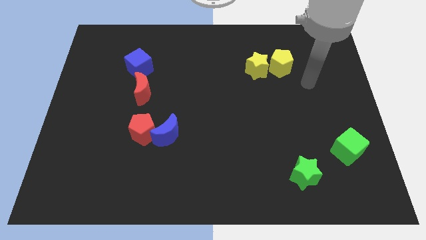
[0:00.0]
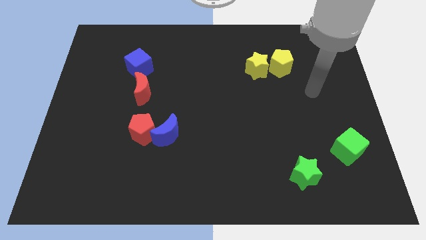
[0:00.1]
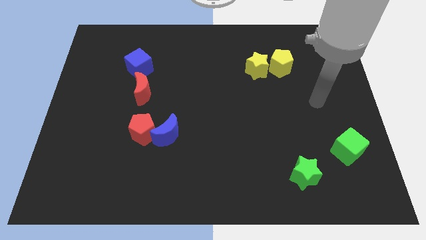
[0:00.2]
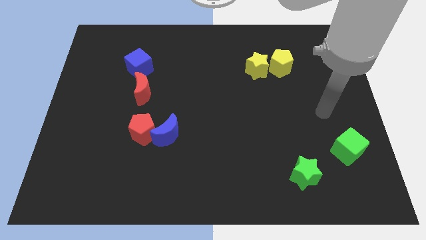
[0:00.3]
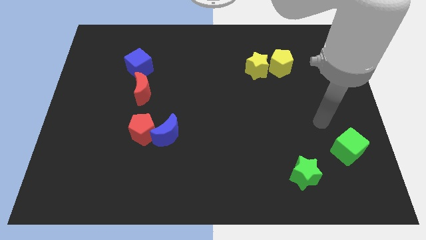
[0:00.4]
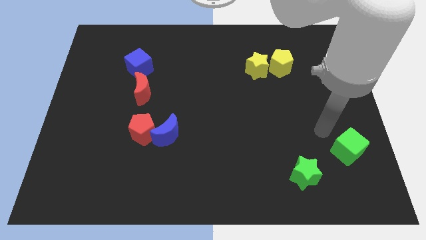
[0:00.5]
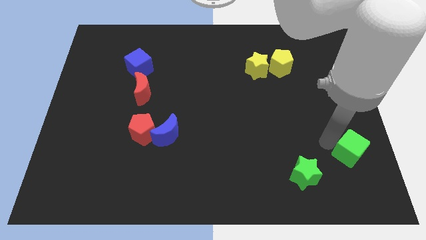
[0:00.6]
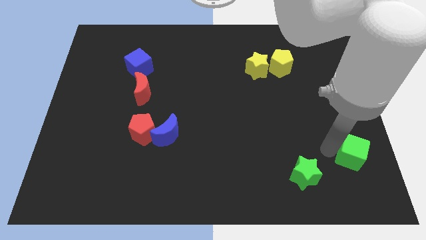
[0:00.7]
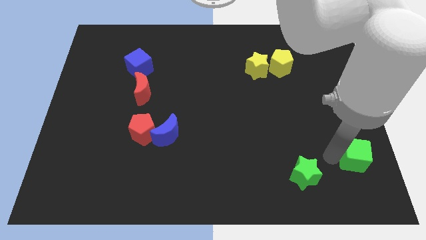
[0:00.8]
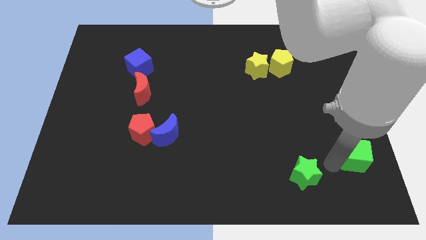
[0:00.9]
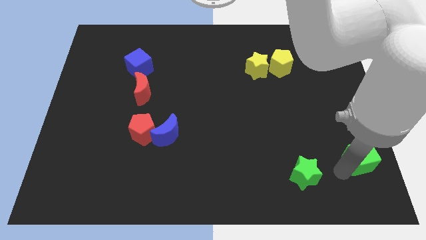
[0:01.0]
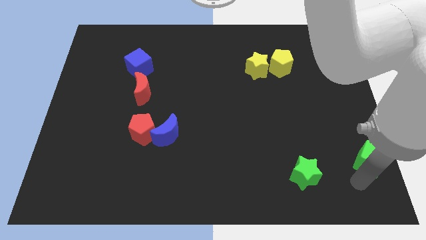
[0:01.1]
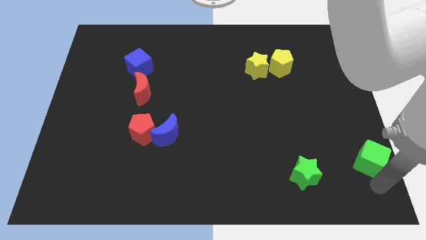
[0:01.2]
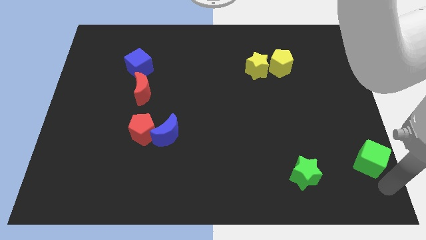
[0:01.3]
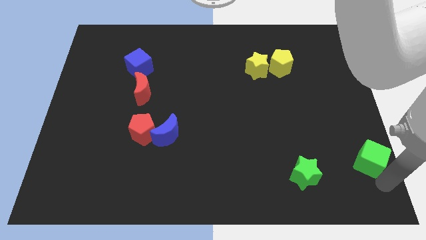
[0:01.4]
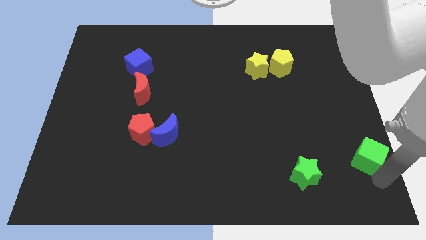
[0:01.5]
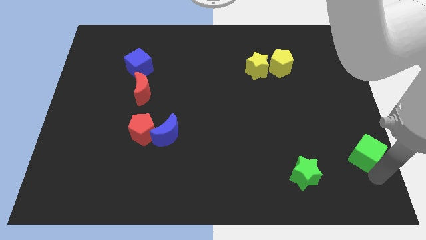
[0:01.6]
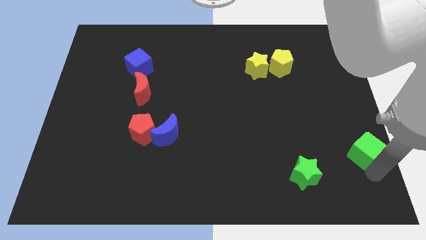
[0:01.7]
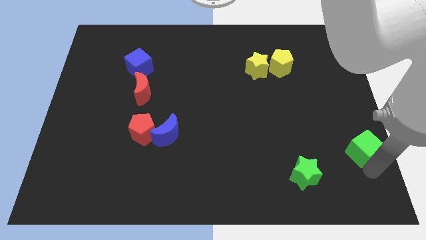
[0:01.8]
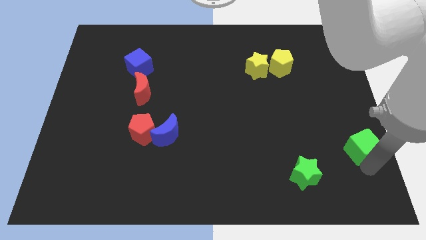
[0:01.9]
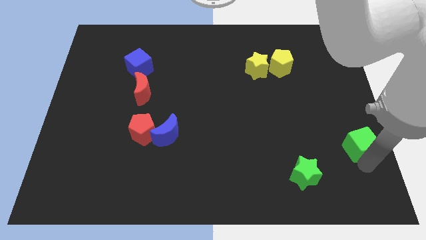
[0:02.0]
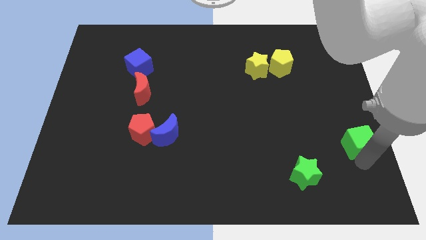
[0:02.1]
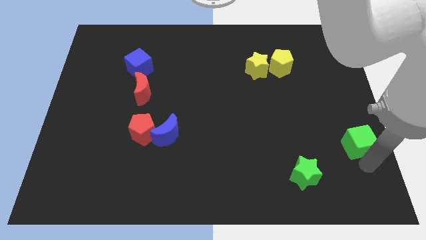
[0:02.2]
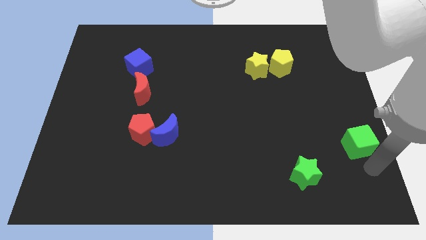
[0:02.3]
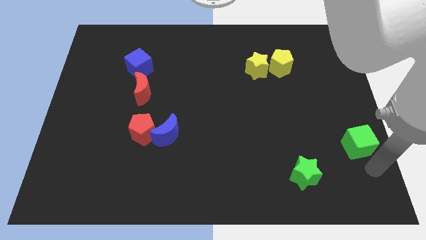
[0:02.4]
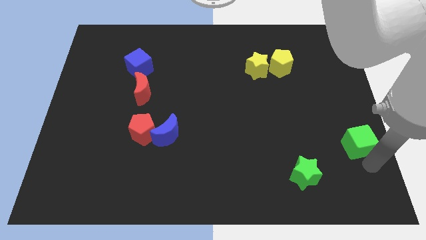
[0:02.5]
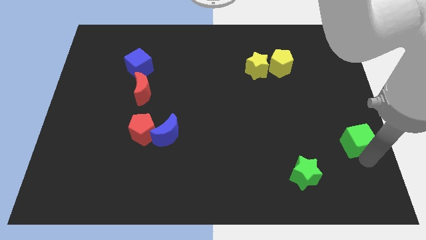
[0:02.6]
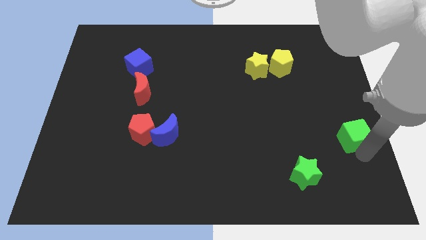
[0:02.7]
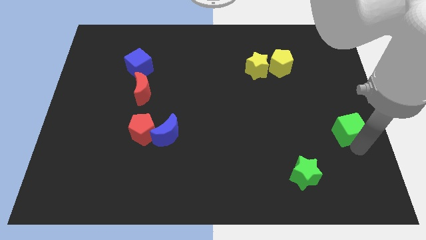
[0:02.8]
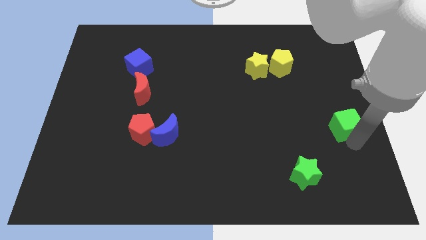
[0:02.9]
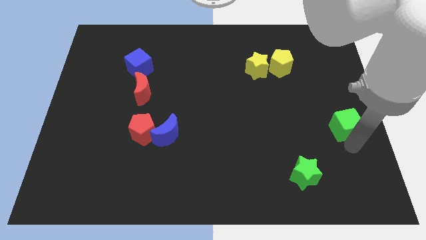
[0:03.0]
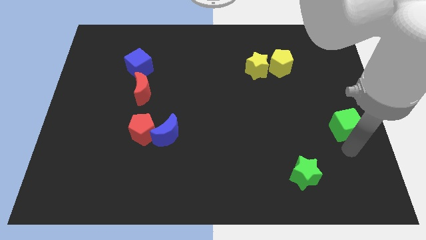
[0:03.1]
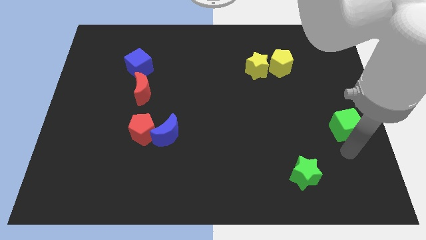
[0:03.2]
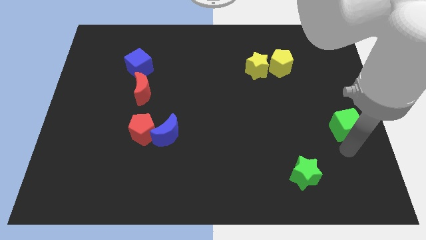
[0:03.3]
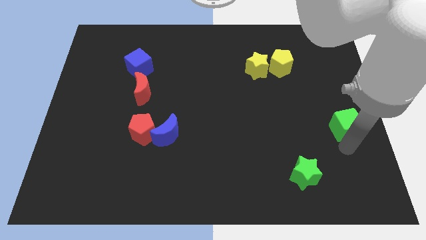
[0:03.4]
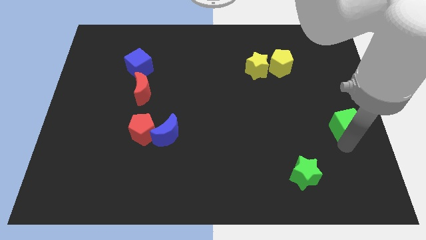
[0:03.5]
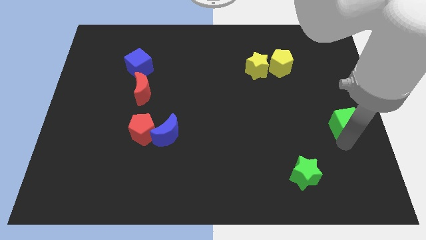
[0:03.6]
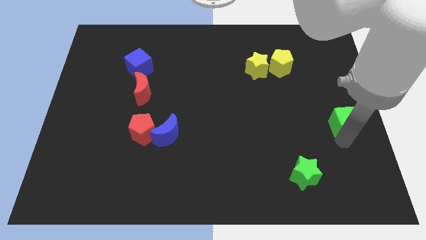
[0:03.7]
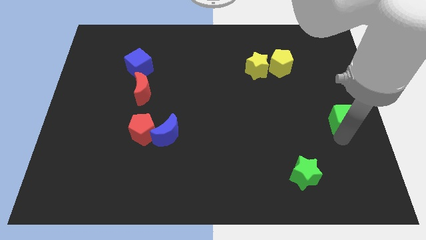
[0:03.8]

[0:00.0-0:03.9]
slightly push the green cube up

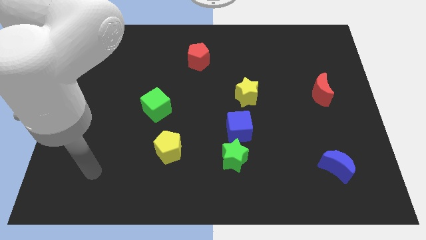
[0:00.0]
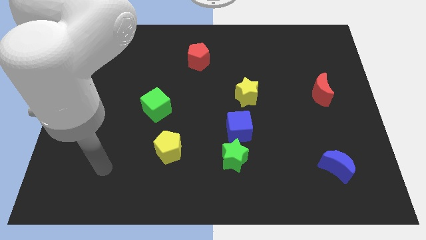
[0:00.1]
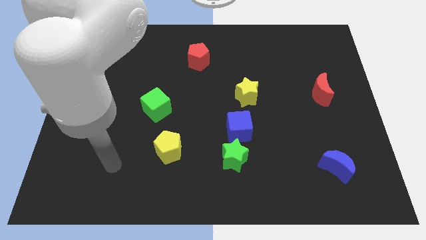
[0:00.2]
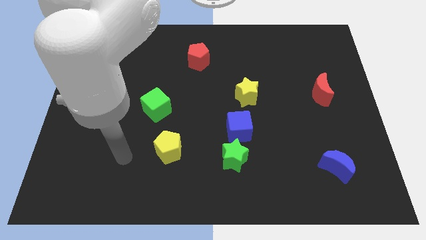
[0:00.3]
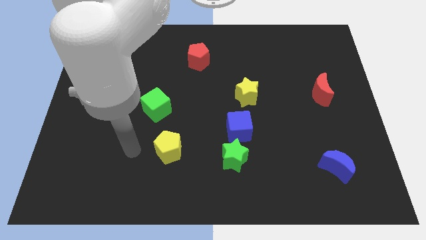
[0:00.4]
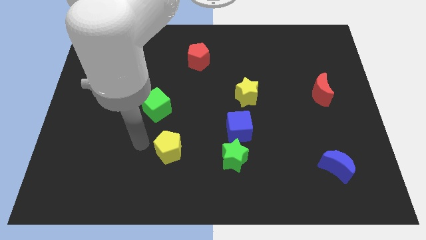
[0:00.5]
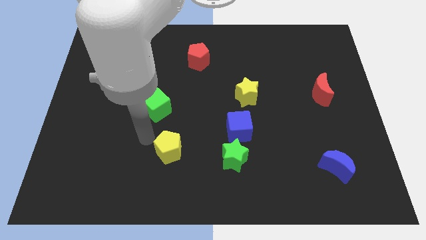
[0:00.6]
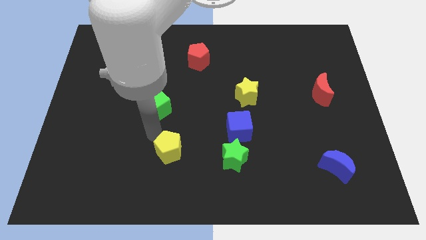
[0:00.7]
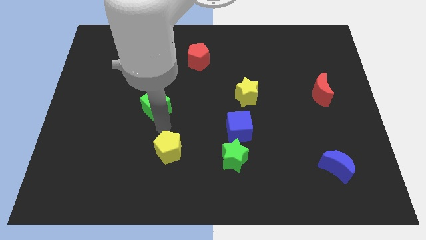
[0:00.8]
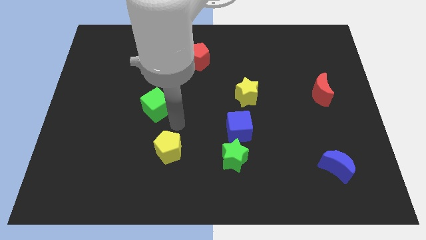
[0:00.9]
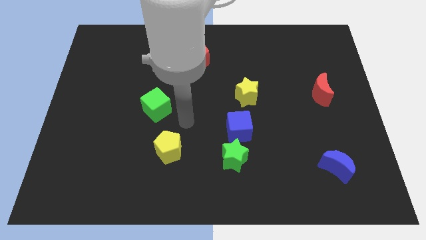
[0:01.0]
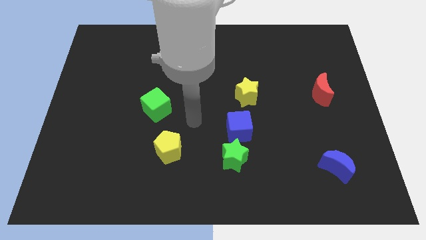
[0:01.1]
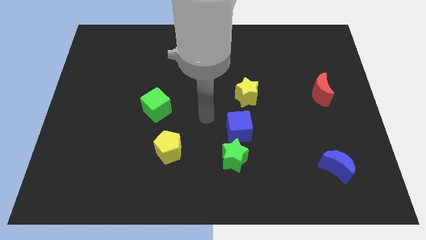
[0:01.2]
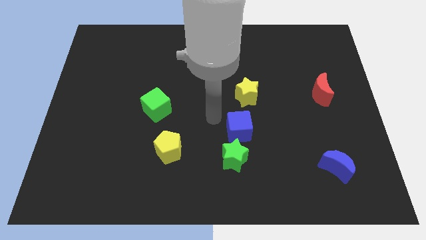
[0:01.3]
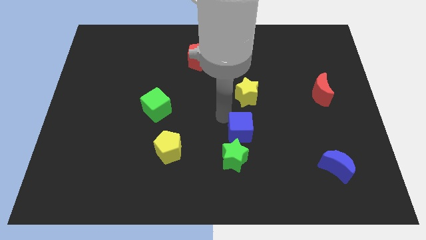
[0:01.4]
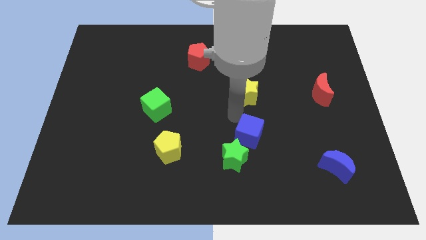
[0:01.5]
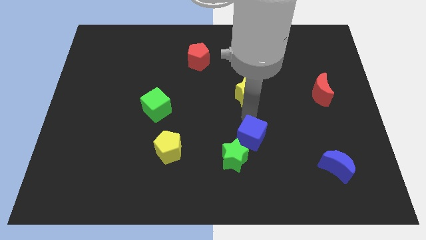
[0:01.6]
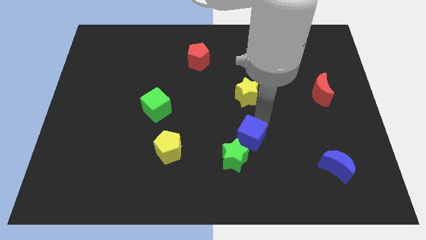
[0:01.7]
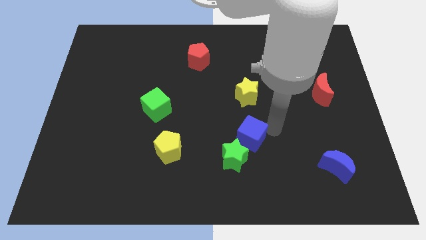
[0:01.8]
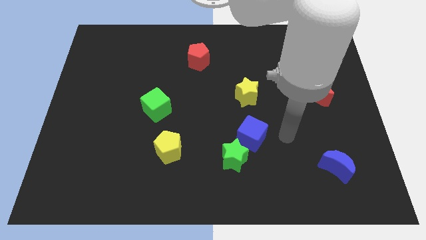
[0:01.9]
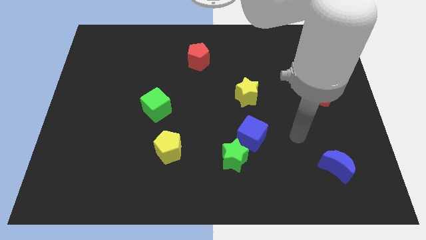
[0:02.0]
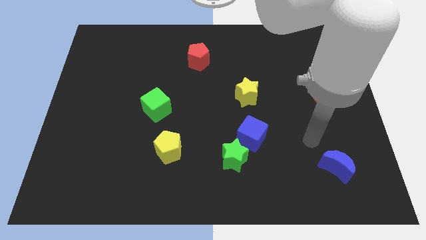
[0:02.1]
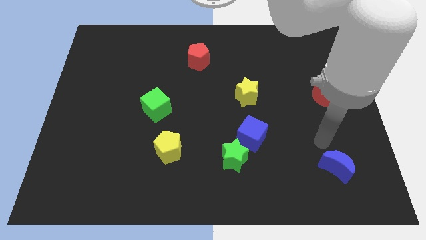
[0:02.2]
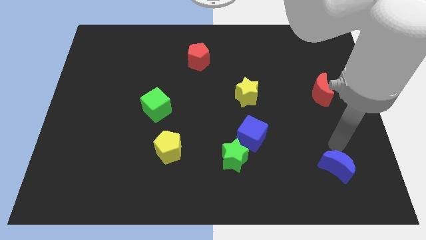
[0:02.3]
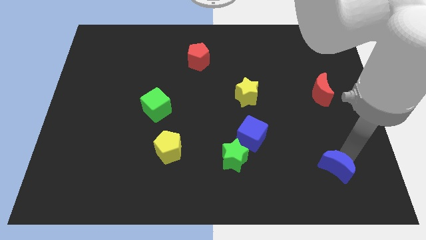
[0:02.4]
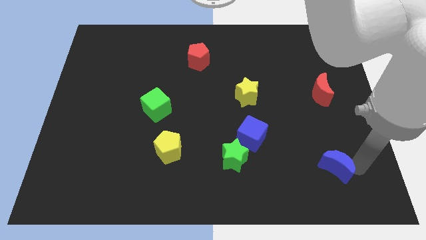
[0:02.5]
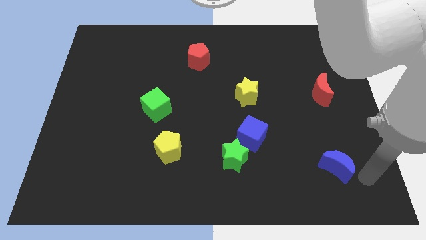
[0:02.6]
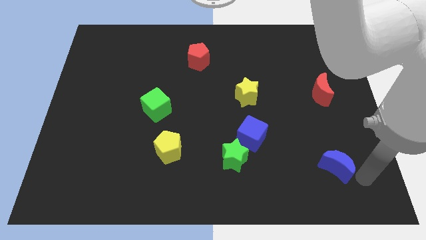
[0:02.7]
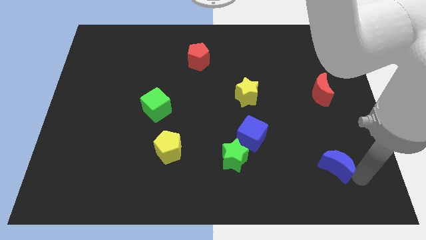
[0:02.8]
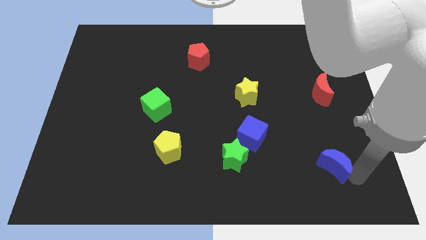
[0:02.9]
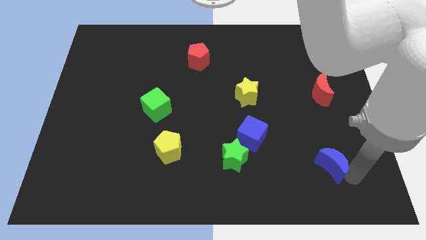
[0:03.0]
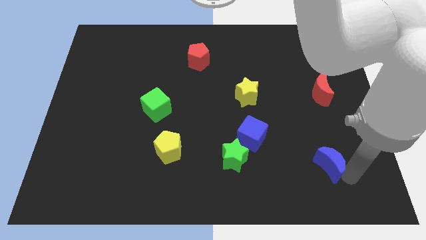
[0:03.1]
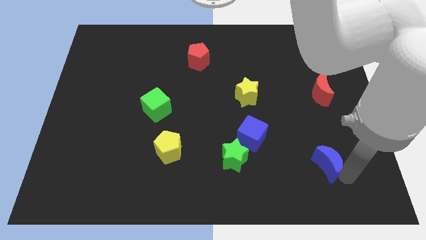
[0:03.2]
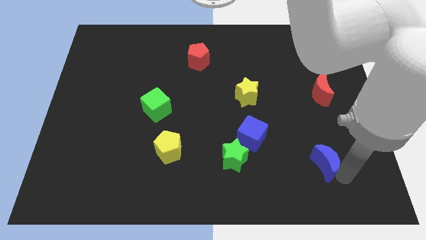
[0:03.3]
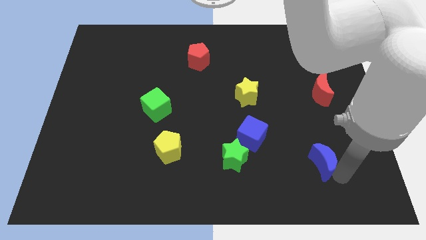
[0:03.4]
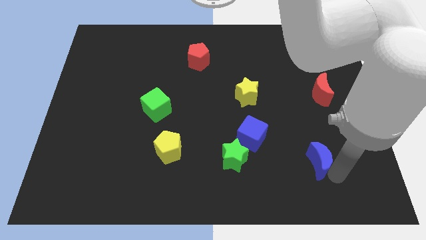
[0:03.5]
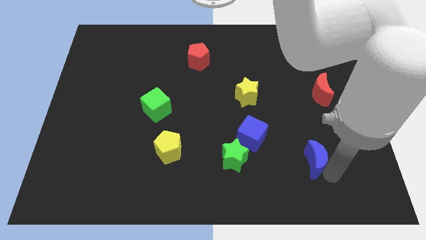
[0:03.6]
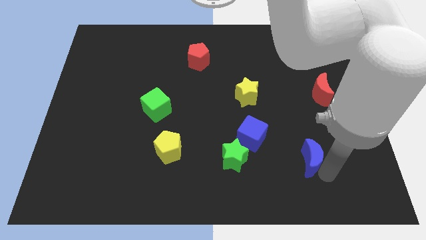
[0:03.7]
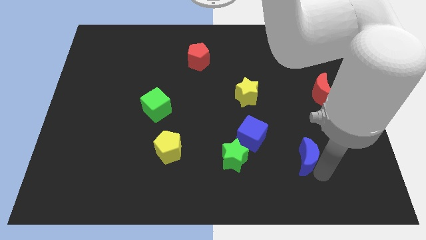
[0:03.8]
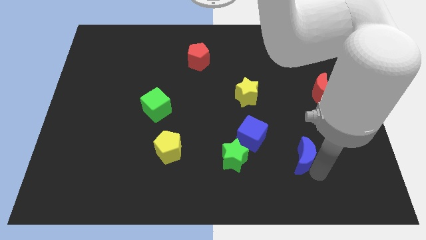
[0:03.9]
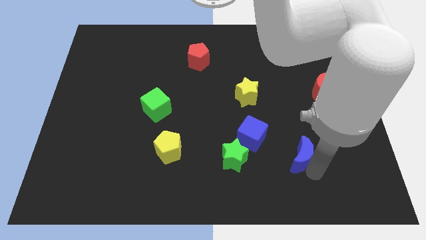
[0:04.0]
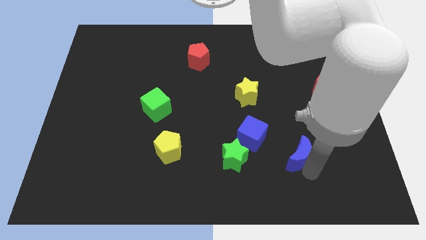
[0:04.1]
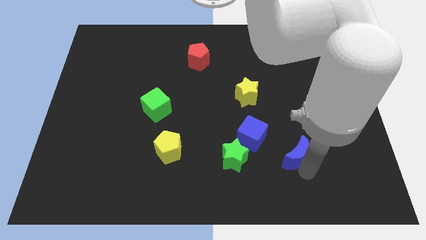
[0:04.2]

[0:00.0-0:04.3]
slide the blue moon upwards and left diagonally a little bit
